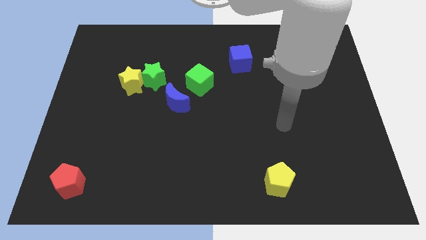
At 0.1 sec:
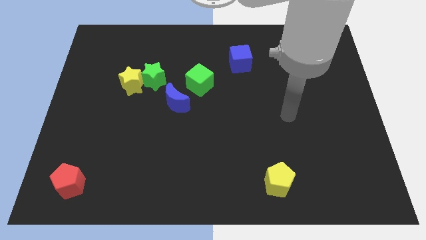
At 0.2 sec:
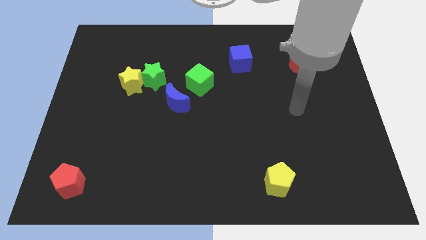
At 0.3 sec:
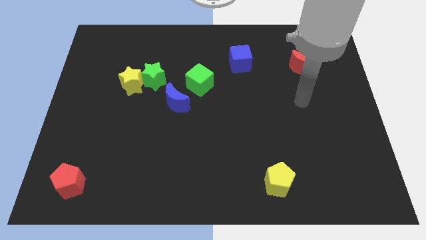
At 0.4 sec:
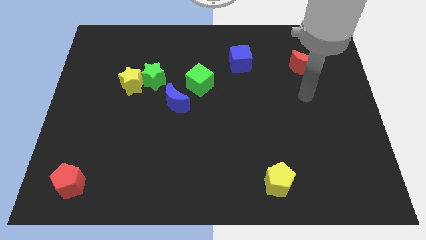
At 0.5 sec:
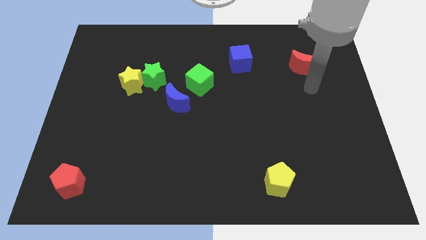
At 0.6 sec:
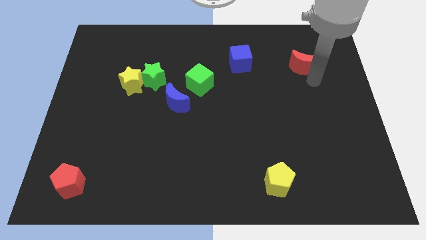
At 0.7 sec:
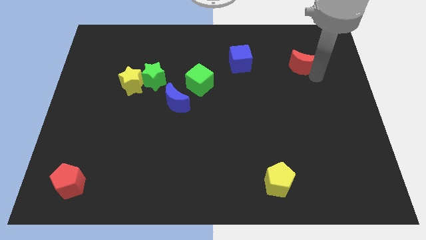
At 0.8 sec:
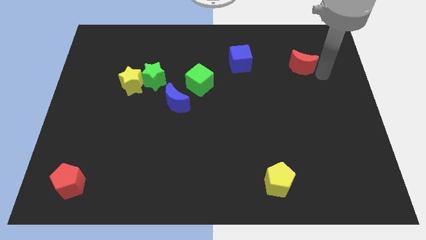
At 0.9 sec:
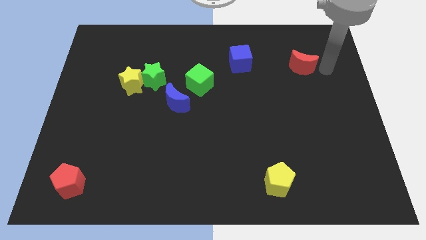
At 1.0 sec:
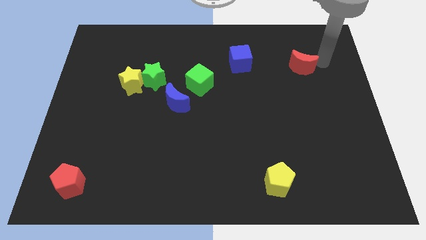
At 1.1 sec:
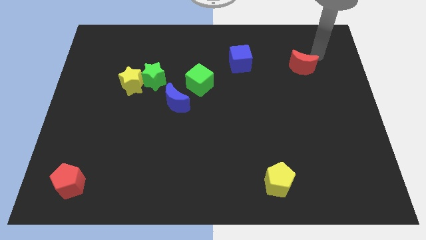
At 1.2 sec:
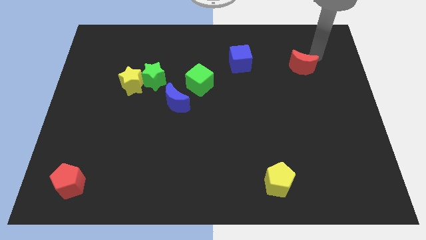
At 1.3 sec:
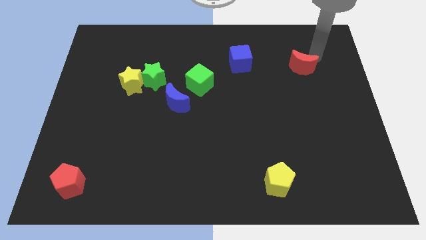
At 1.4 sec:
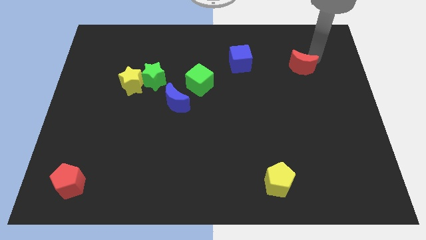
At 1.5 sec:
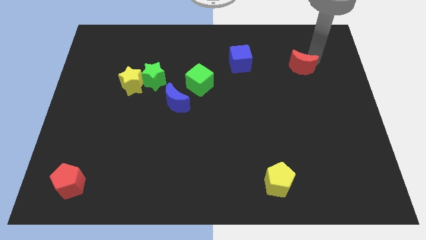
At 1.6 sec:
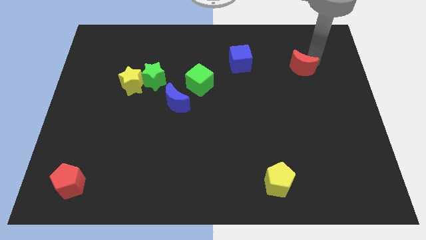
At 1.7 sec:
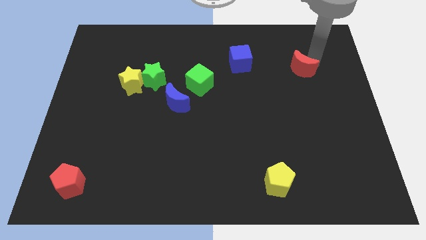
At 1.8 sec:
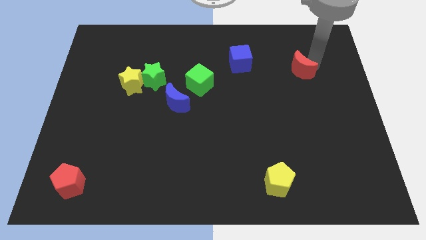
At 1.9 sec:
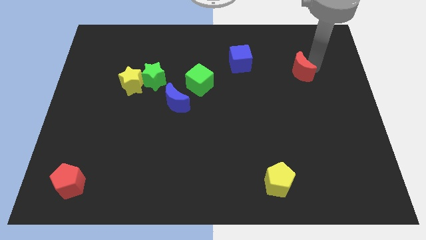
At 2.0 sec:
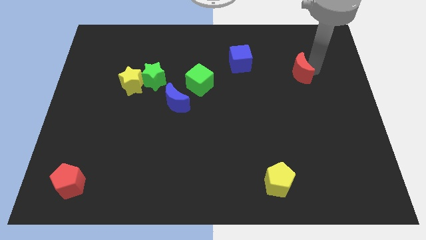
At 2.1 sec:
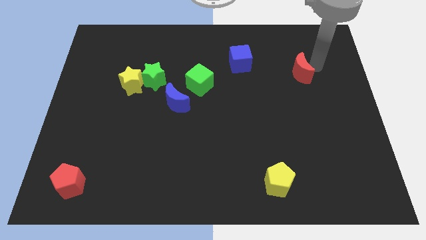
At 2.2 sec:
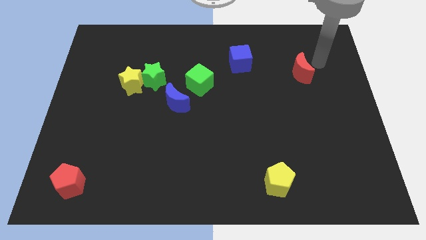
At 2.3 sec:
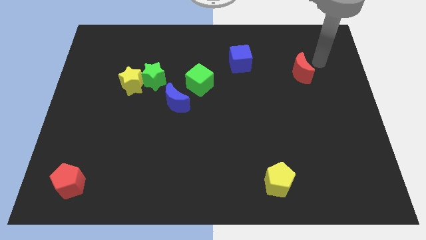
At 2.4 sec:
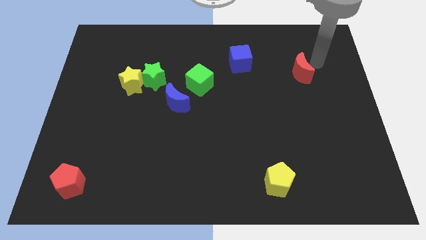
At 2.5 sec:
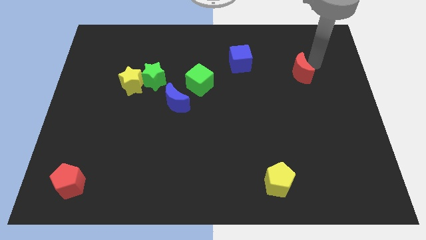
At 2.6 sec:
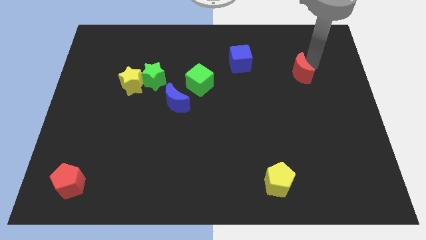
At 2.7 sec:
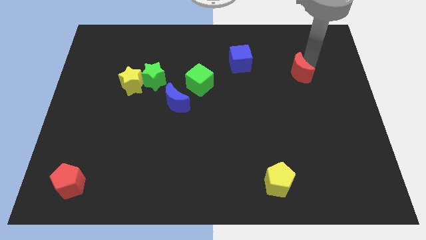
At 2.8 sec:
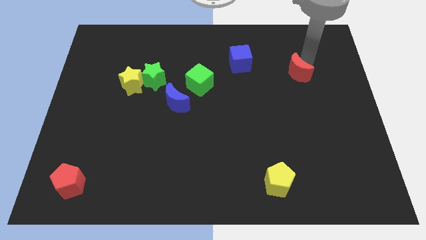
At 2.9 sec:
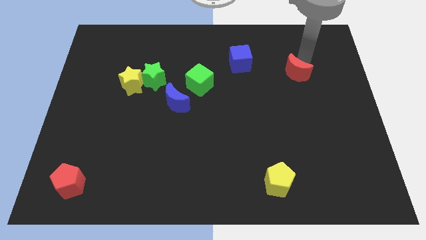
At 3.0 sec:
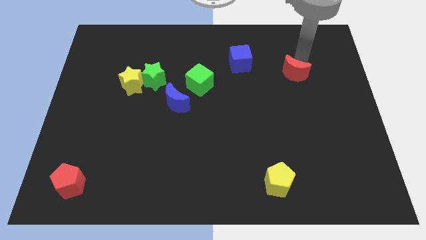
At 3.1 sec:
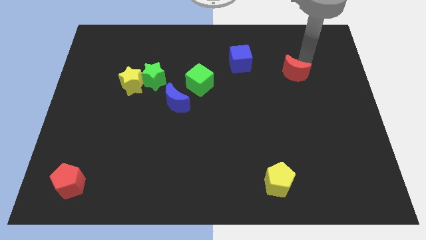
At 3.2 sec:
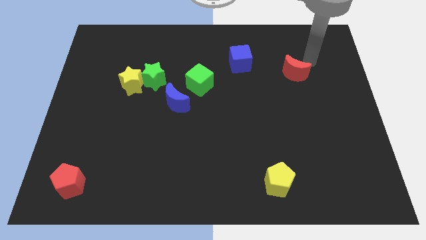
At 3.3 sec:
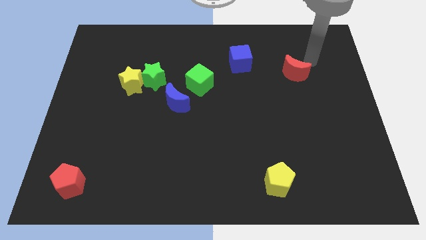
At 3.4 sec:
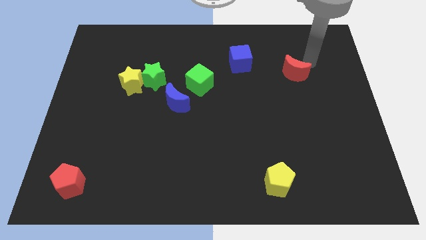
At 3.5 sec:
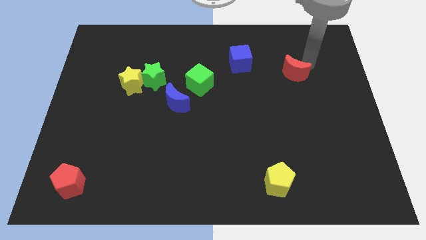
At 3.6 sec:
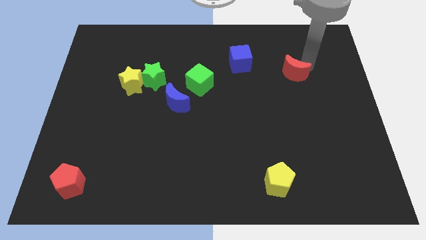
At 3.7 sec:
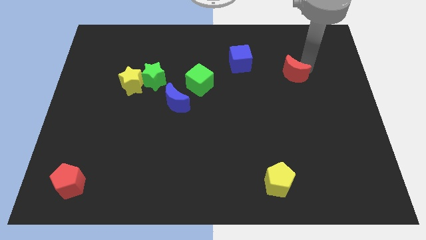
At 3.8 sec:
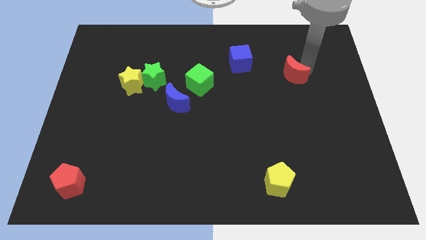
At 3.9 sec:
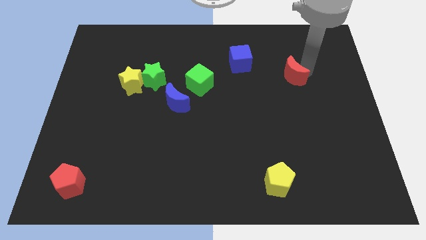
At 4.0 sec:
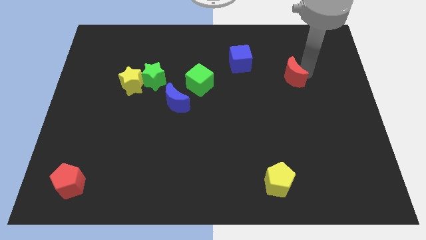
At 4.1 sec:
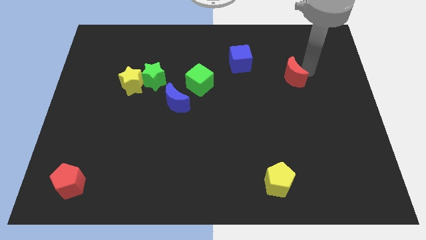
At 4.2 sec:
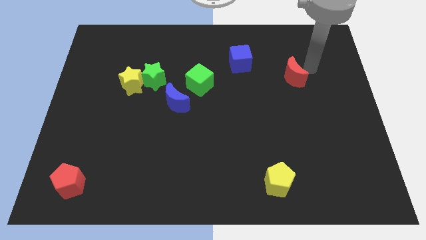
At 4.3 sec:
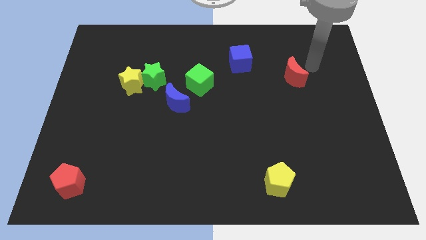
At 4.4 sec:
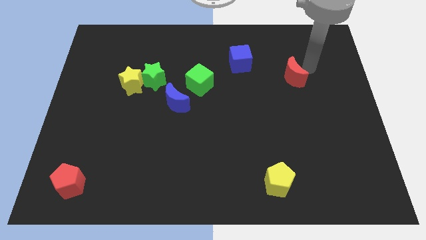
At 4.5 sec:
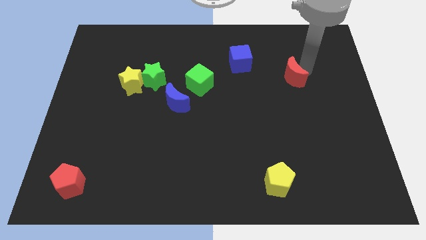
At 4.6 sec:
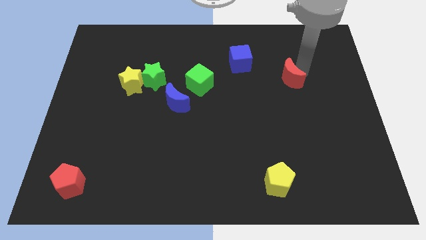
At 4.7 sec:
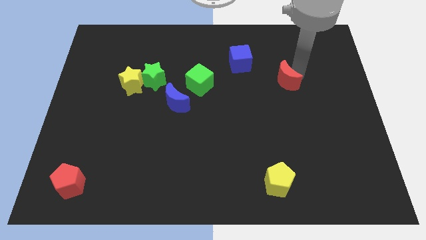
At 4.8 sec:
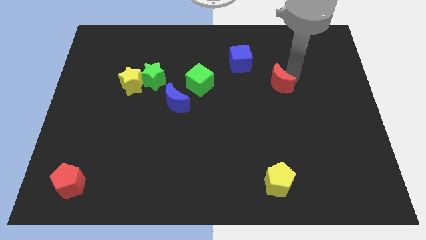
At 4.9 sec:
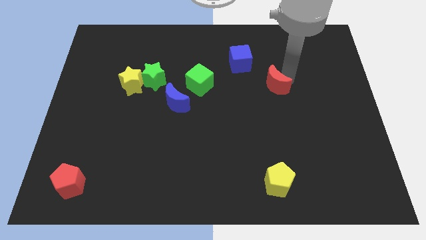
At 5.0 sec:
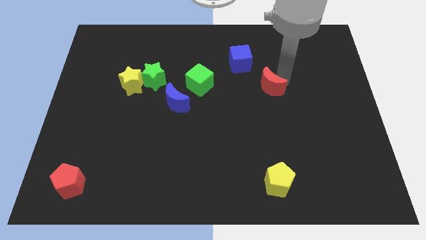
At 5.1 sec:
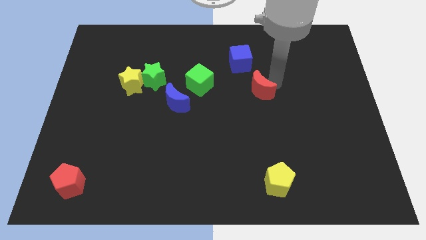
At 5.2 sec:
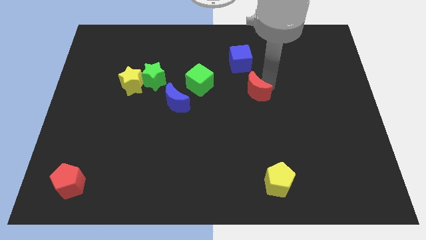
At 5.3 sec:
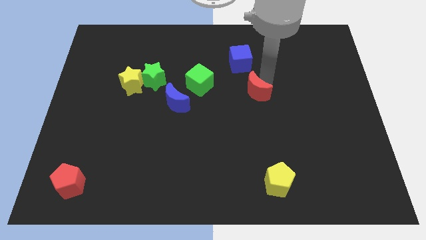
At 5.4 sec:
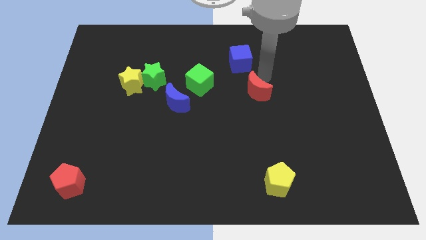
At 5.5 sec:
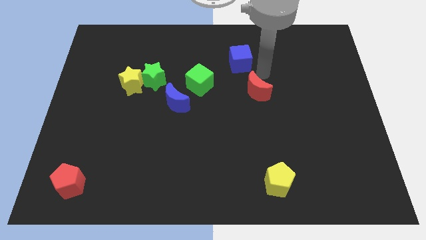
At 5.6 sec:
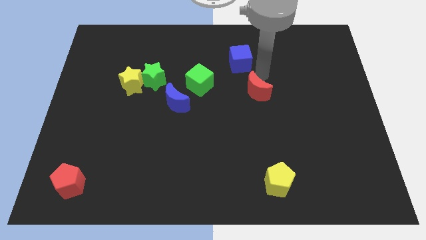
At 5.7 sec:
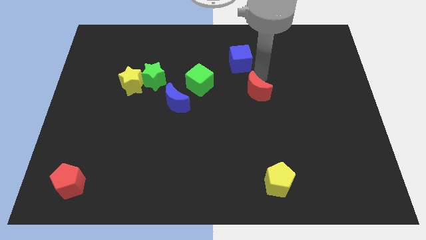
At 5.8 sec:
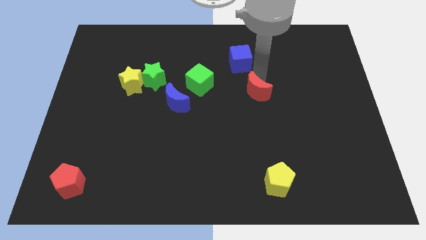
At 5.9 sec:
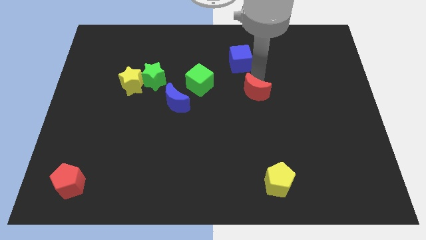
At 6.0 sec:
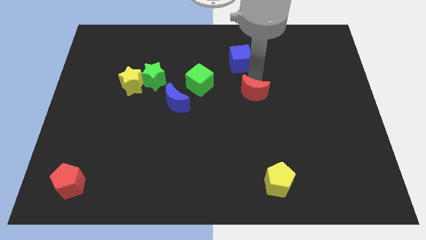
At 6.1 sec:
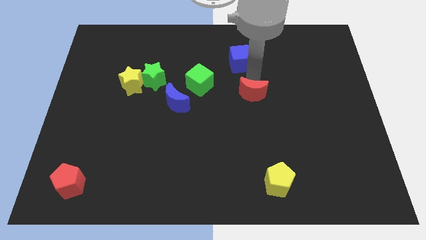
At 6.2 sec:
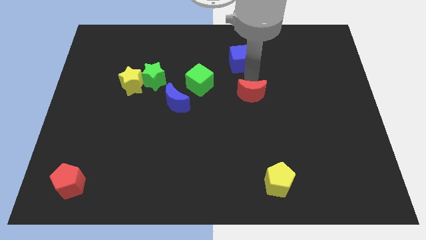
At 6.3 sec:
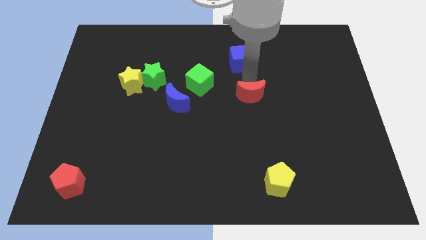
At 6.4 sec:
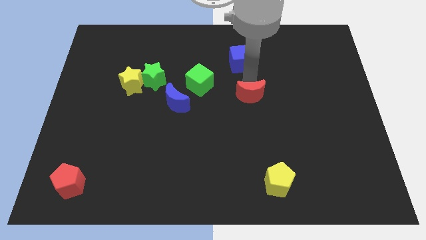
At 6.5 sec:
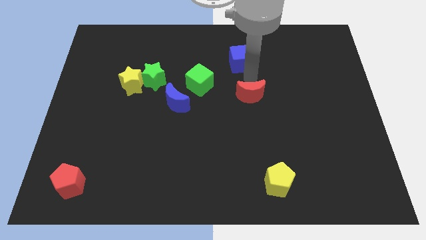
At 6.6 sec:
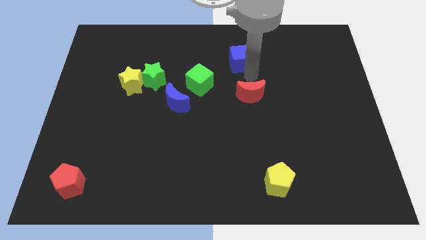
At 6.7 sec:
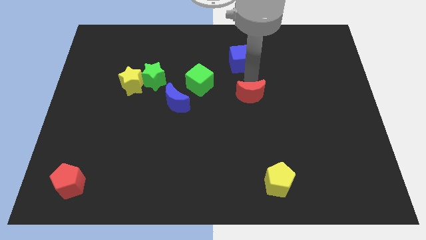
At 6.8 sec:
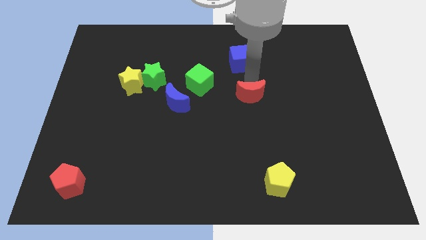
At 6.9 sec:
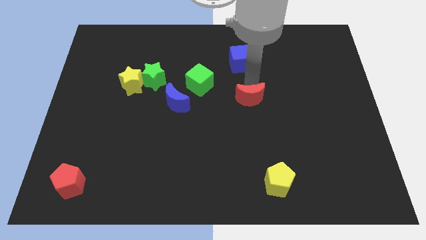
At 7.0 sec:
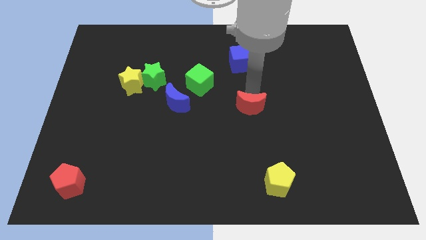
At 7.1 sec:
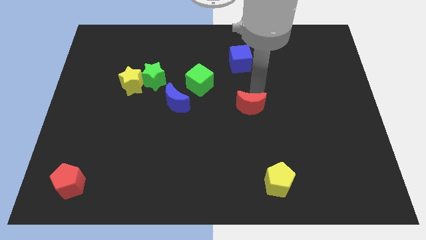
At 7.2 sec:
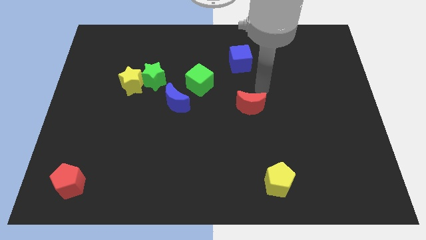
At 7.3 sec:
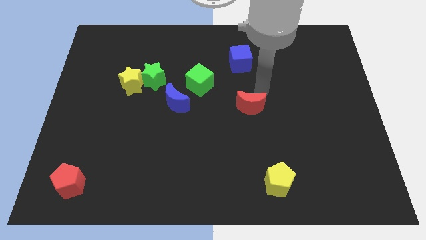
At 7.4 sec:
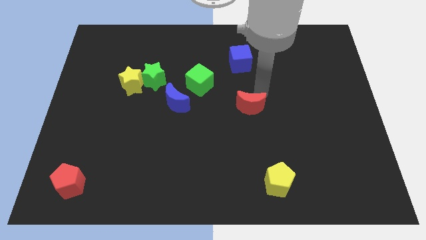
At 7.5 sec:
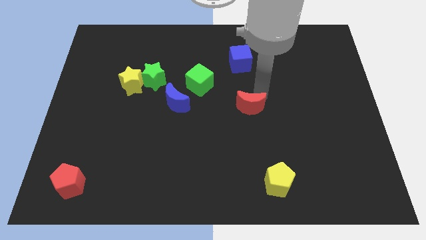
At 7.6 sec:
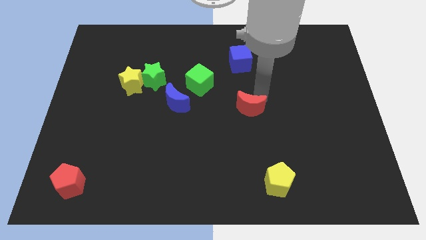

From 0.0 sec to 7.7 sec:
push the red moon downwards and left diagonally
